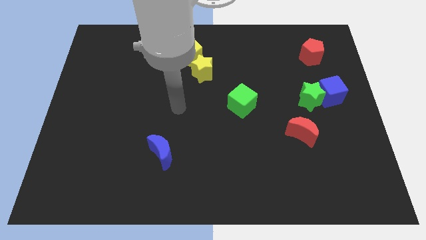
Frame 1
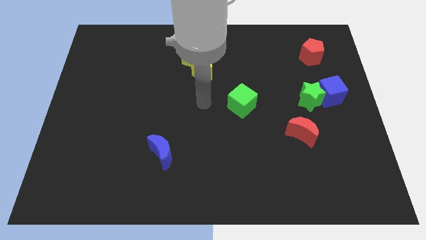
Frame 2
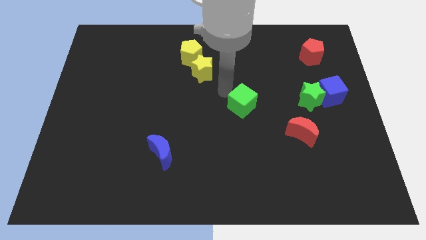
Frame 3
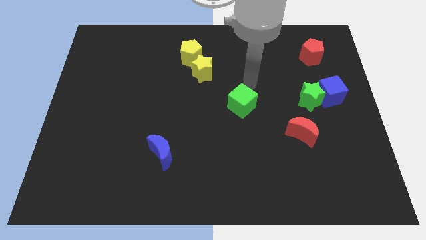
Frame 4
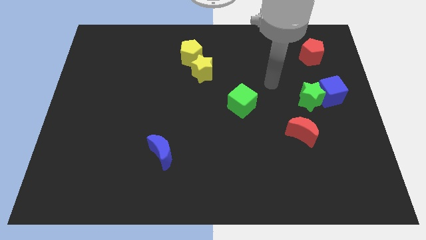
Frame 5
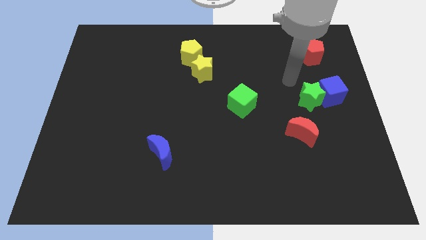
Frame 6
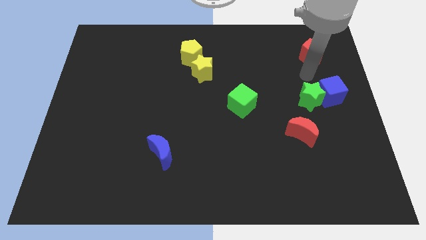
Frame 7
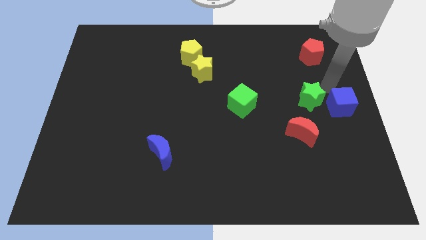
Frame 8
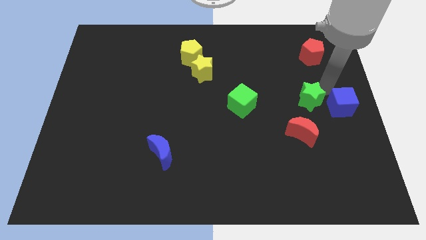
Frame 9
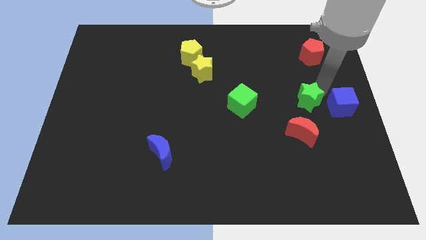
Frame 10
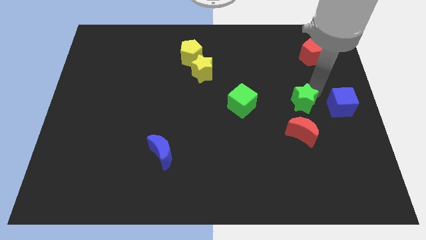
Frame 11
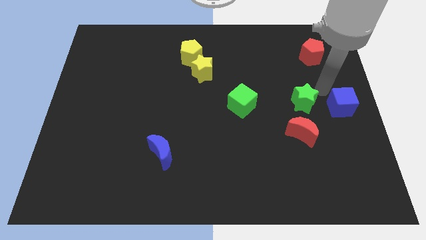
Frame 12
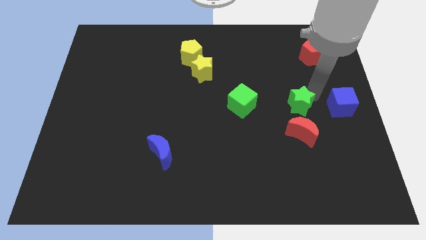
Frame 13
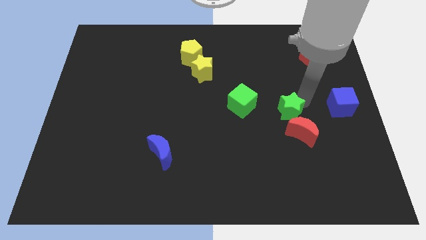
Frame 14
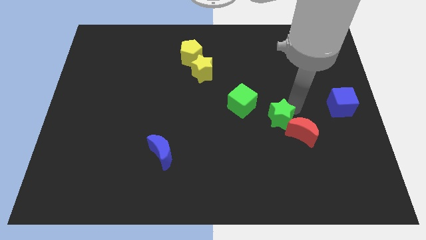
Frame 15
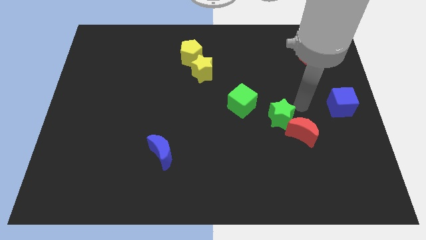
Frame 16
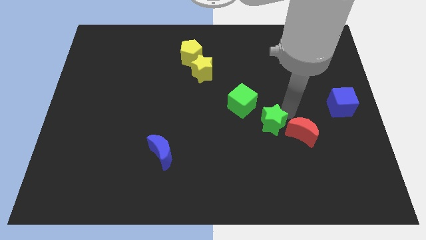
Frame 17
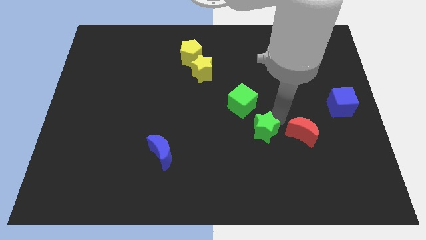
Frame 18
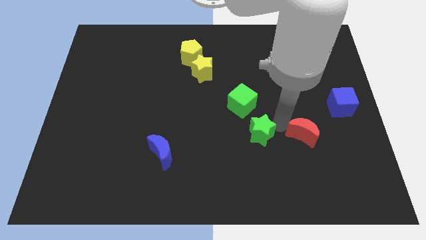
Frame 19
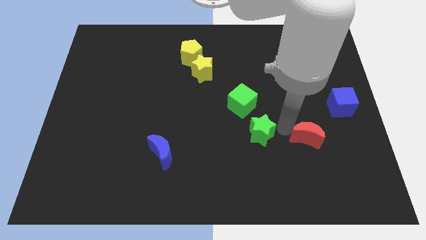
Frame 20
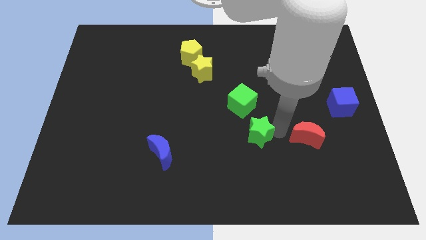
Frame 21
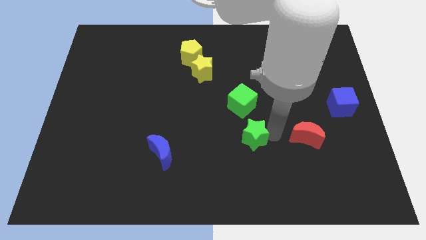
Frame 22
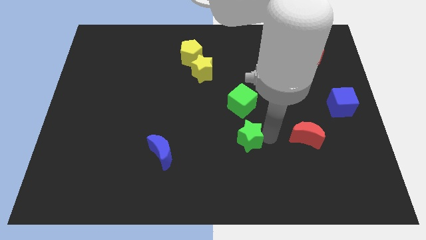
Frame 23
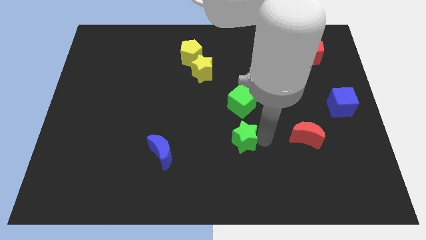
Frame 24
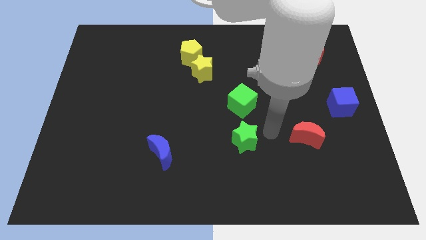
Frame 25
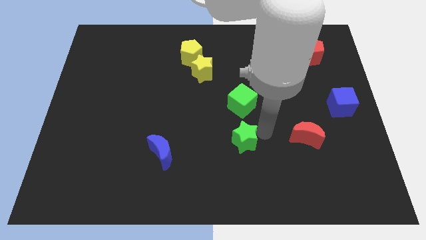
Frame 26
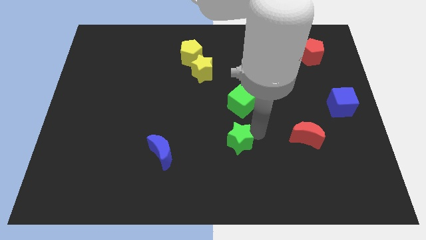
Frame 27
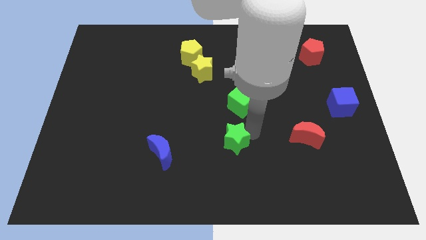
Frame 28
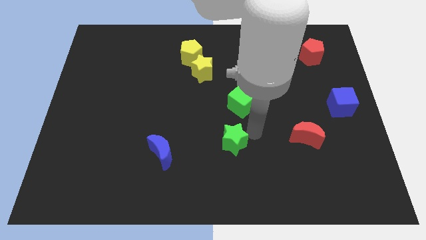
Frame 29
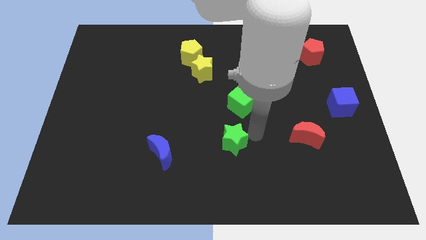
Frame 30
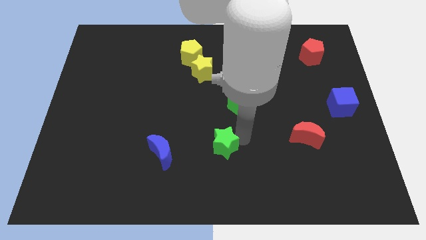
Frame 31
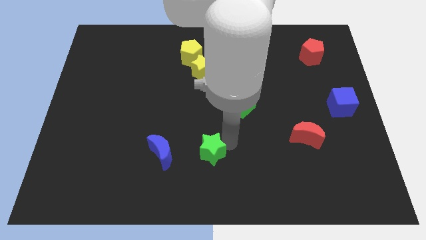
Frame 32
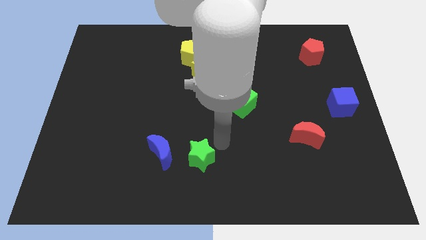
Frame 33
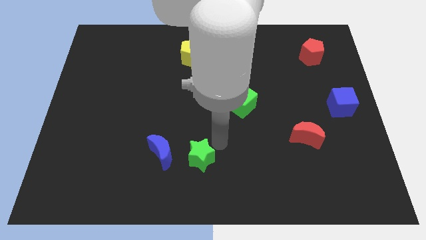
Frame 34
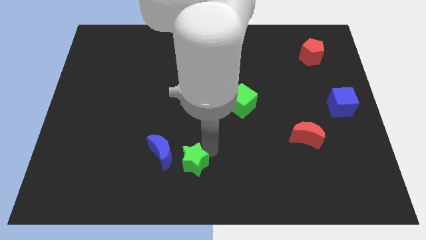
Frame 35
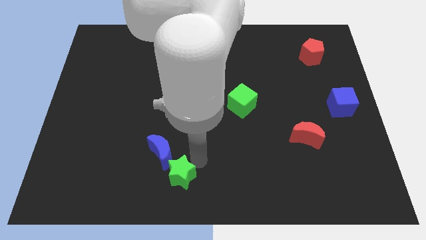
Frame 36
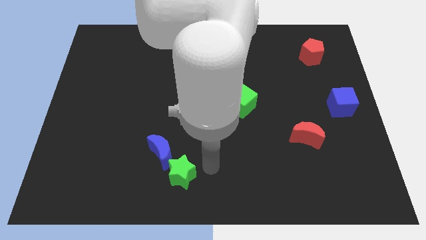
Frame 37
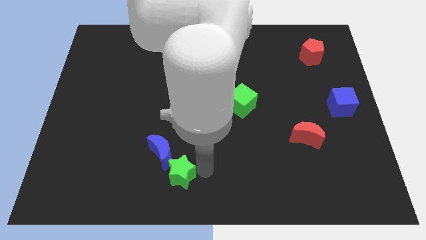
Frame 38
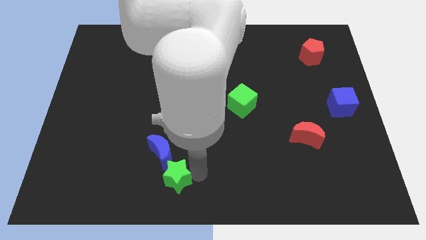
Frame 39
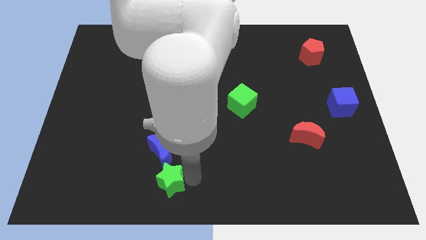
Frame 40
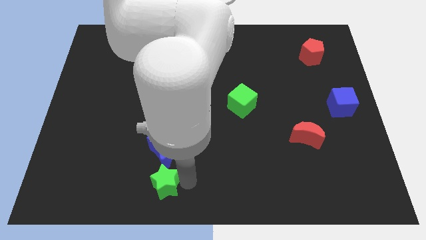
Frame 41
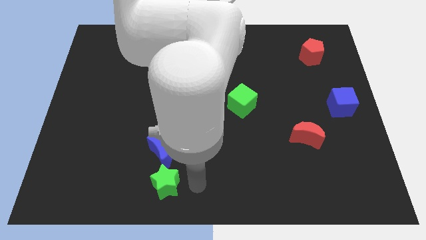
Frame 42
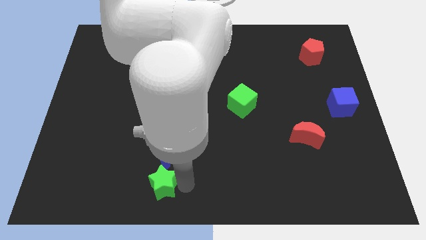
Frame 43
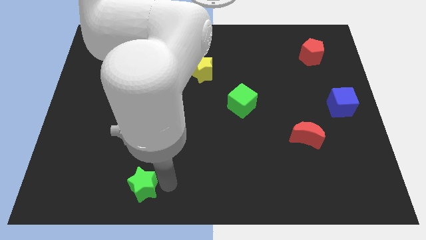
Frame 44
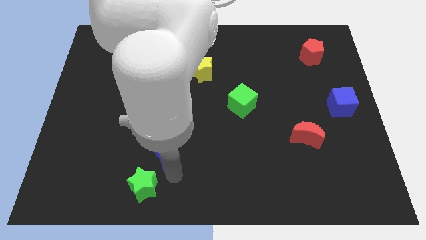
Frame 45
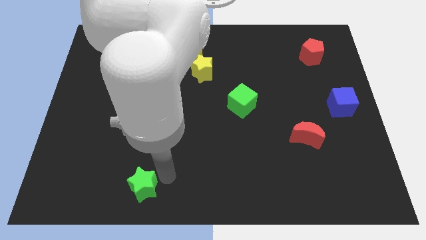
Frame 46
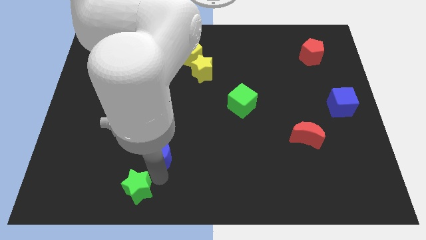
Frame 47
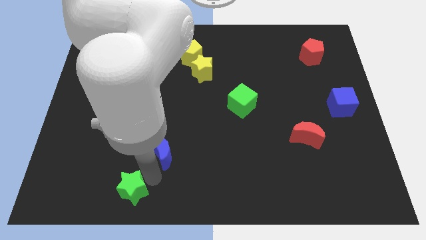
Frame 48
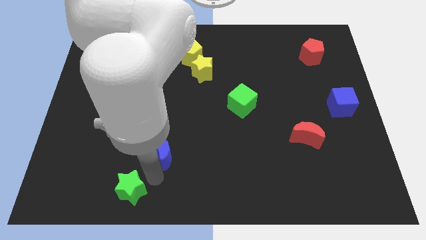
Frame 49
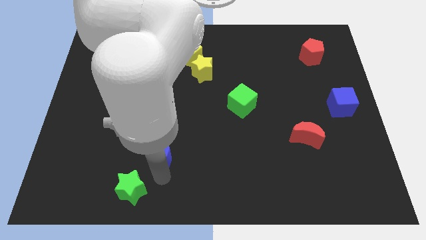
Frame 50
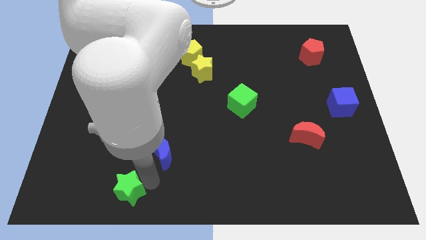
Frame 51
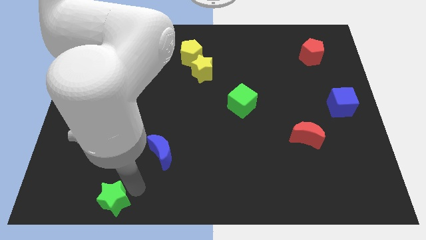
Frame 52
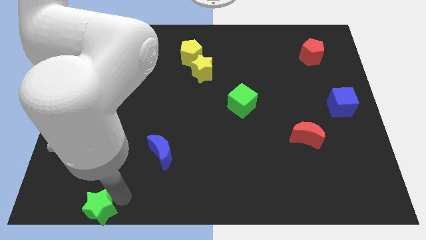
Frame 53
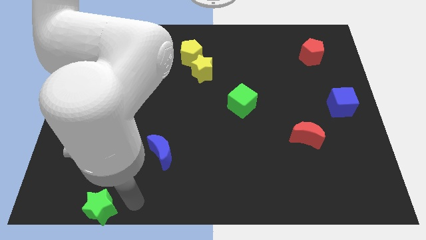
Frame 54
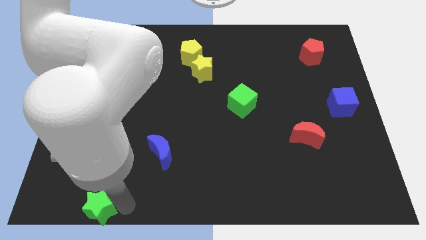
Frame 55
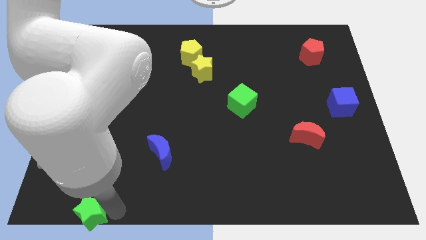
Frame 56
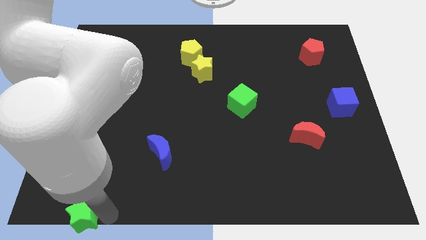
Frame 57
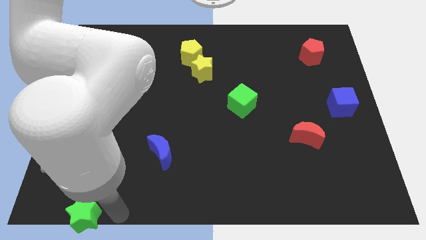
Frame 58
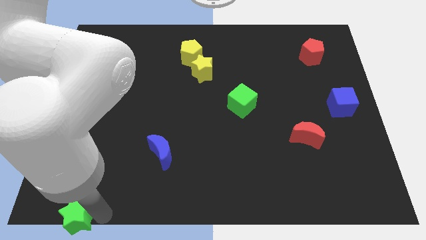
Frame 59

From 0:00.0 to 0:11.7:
put the green star to the lower left corner

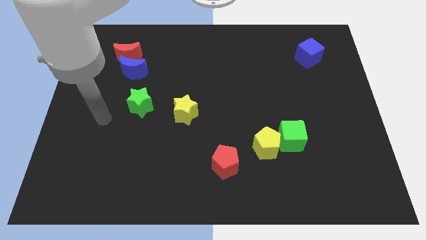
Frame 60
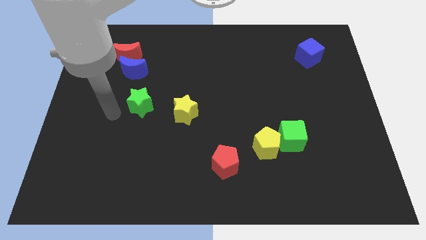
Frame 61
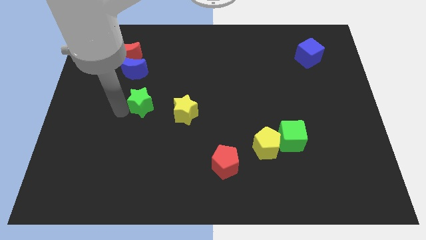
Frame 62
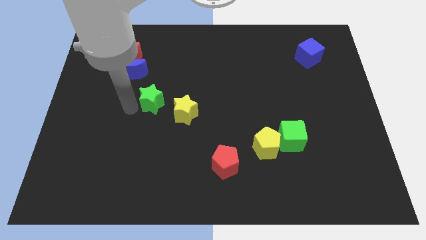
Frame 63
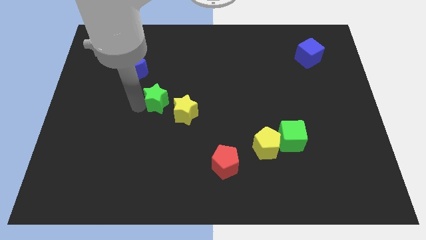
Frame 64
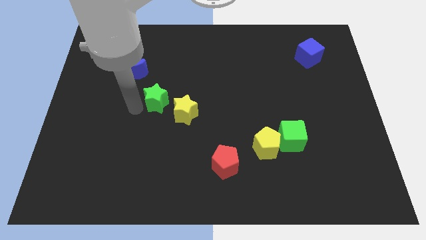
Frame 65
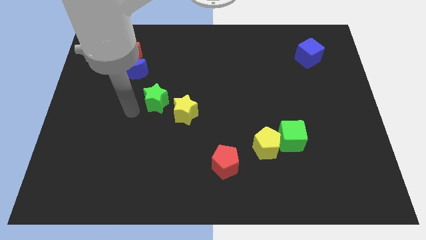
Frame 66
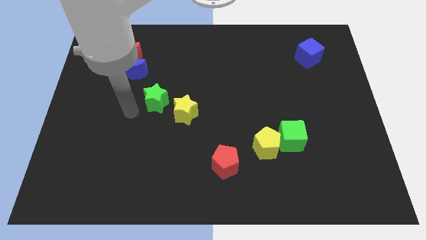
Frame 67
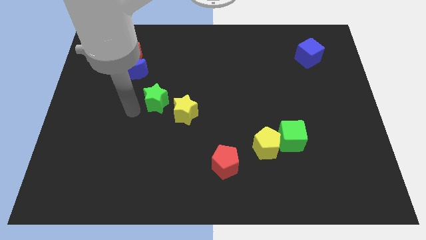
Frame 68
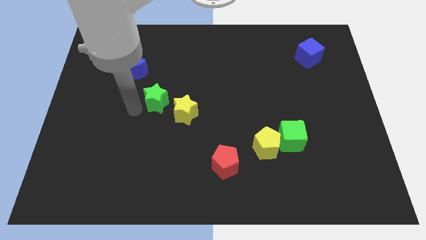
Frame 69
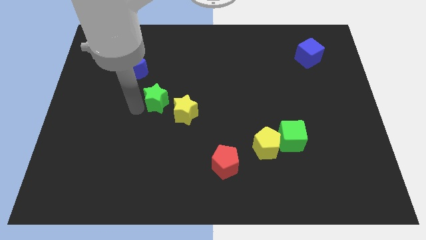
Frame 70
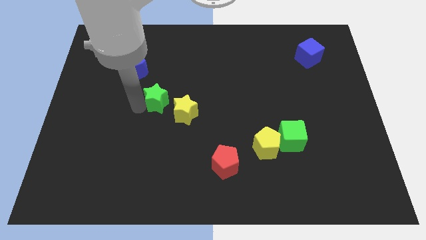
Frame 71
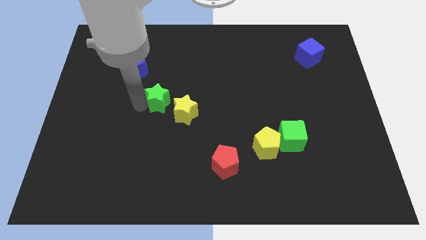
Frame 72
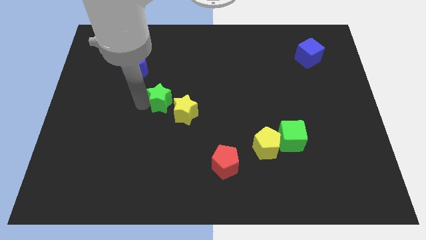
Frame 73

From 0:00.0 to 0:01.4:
move the green star to the middle

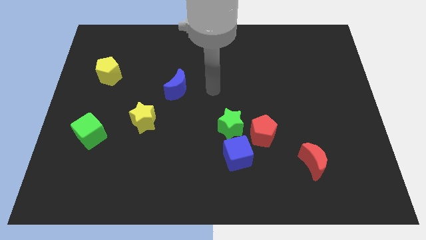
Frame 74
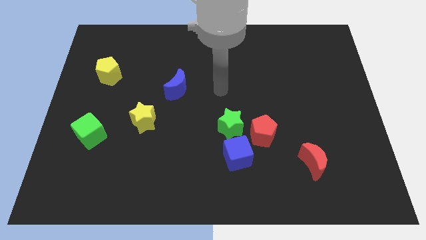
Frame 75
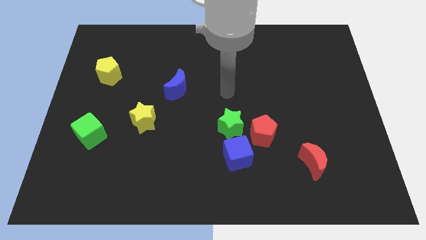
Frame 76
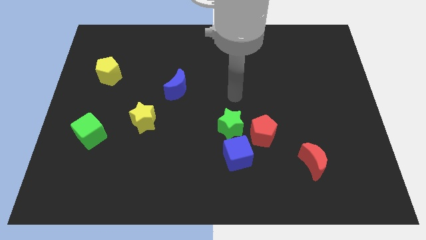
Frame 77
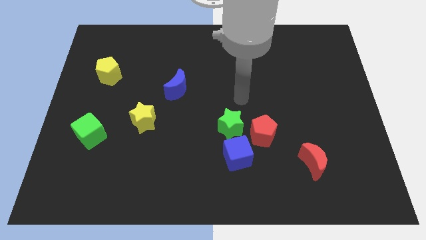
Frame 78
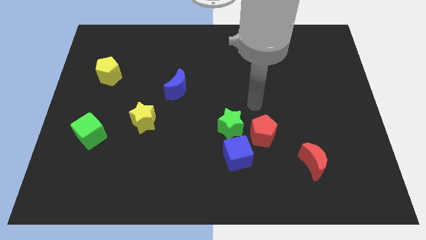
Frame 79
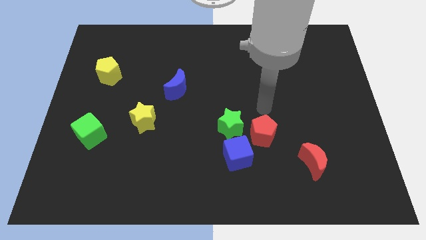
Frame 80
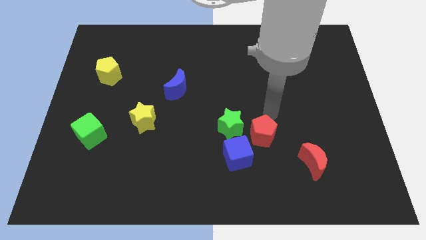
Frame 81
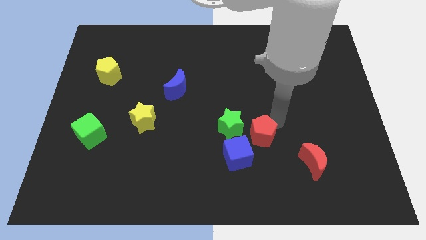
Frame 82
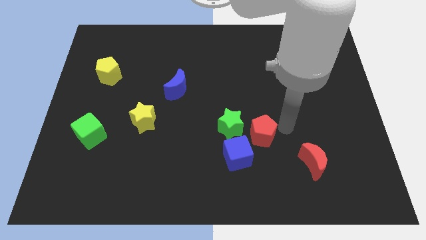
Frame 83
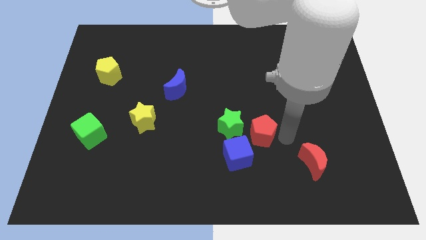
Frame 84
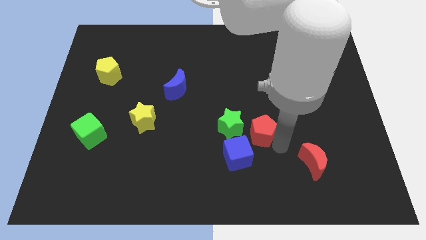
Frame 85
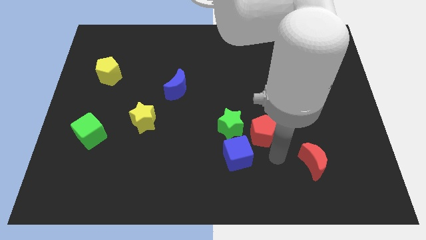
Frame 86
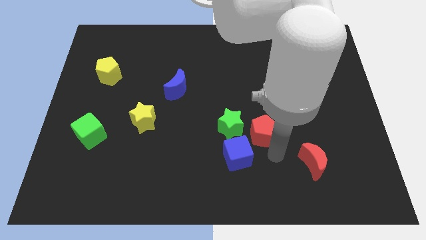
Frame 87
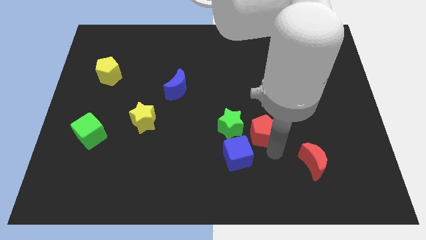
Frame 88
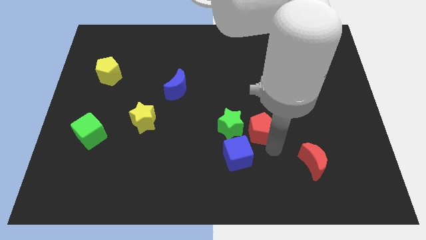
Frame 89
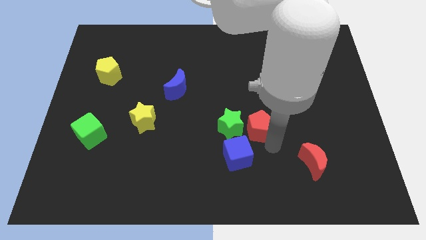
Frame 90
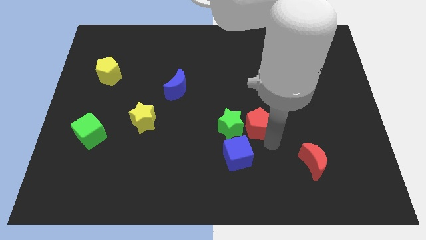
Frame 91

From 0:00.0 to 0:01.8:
slide the red pentagon to the middle of the board
